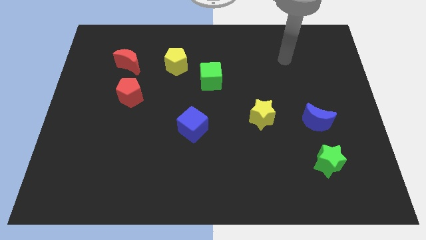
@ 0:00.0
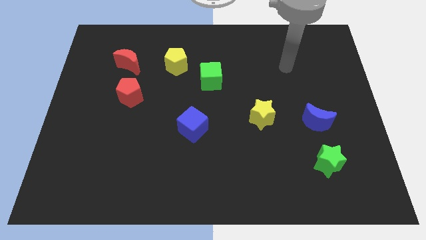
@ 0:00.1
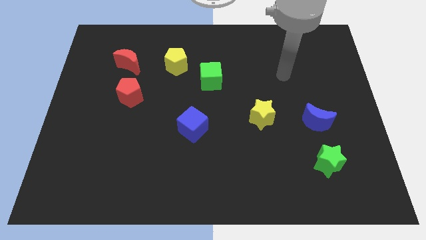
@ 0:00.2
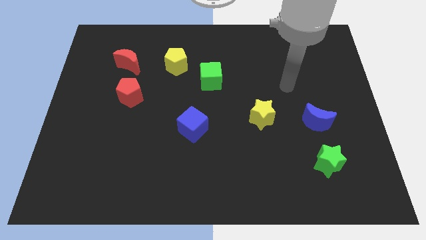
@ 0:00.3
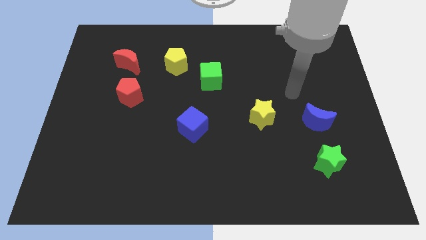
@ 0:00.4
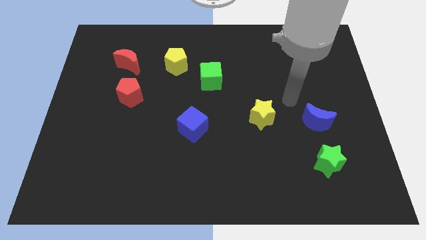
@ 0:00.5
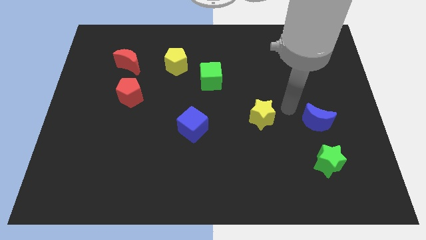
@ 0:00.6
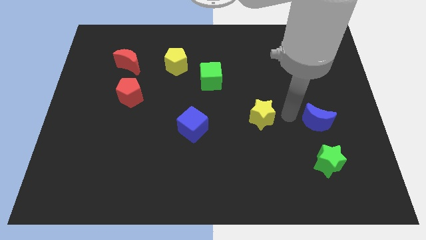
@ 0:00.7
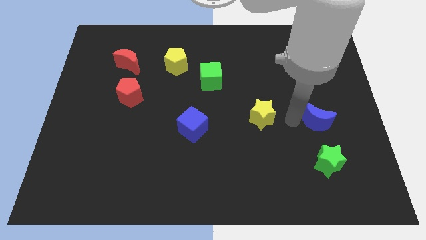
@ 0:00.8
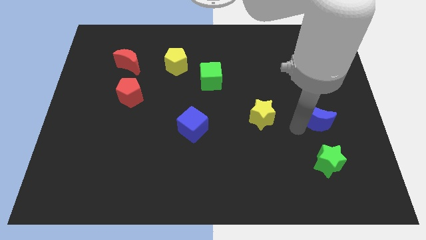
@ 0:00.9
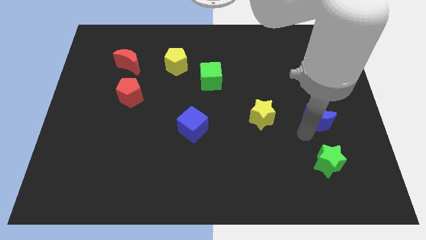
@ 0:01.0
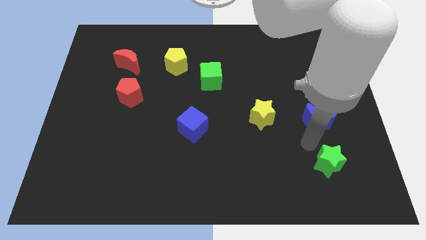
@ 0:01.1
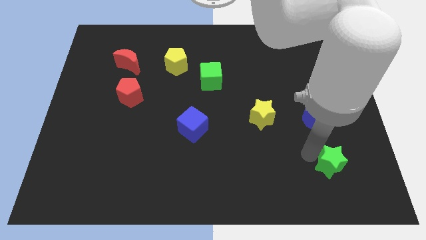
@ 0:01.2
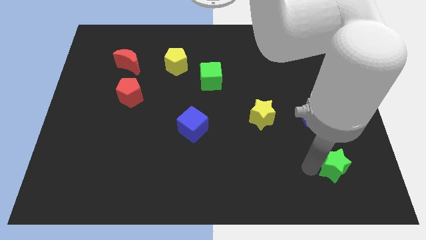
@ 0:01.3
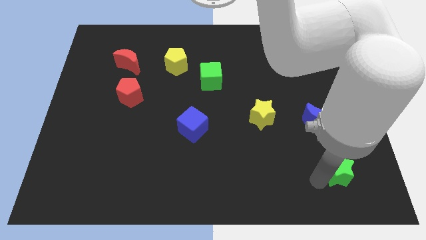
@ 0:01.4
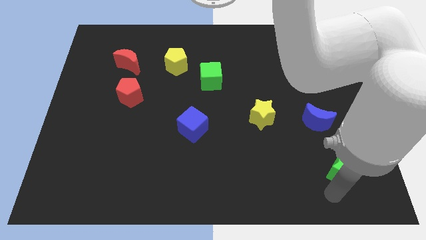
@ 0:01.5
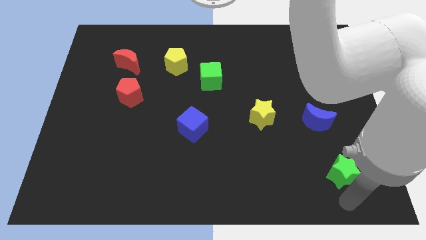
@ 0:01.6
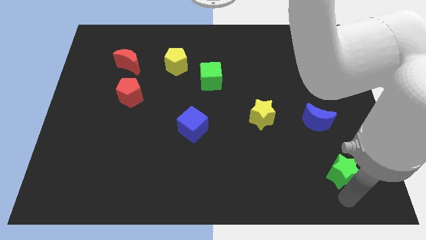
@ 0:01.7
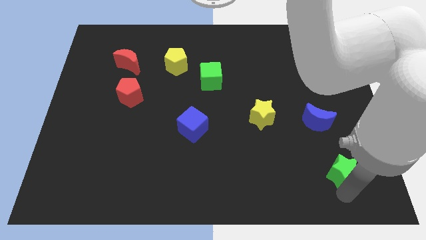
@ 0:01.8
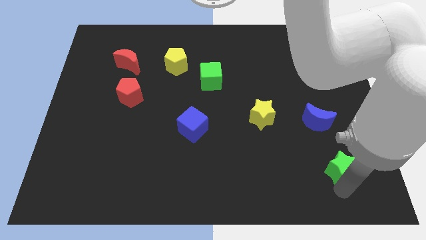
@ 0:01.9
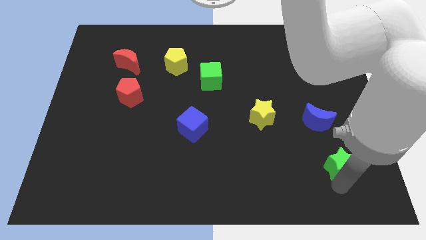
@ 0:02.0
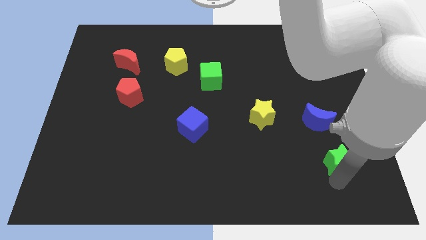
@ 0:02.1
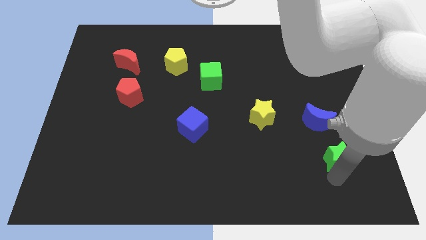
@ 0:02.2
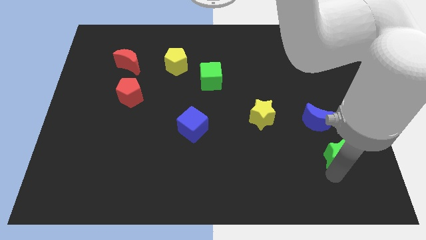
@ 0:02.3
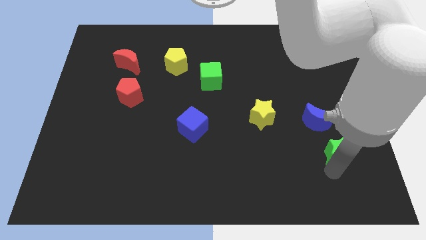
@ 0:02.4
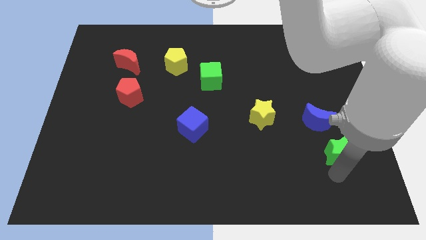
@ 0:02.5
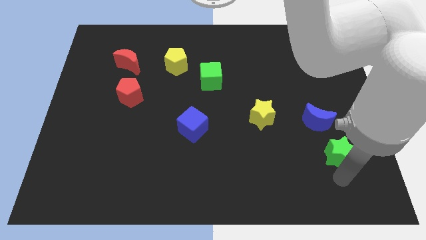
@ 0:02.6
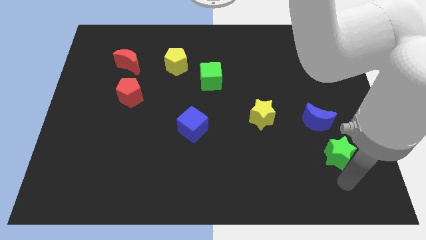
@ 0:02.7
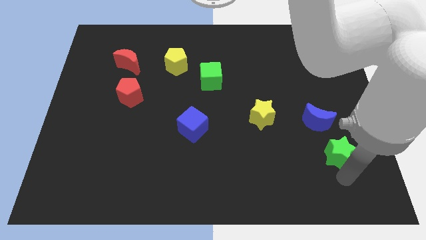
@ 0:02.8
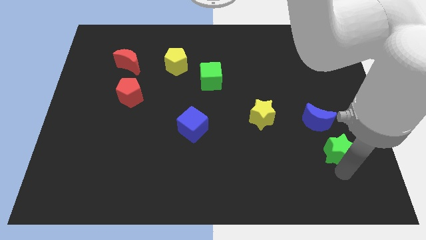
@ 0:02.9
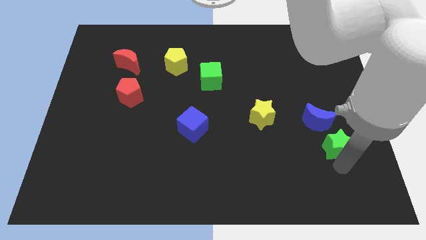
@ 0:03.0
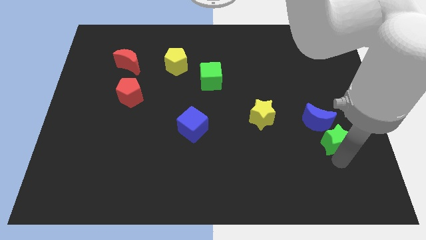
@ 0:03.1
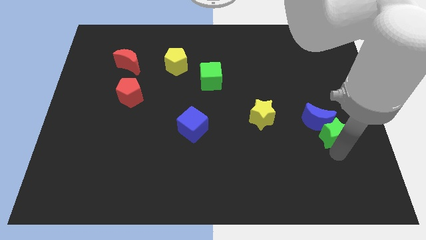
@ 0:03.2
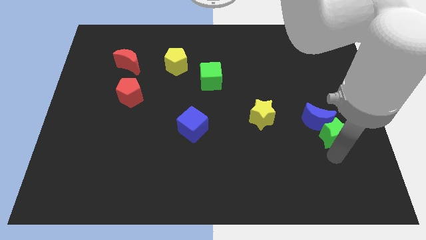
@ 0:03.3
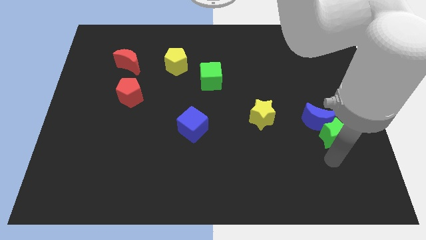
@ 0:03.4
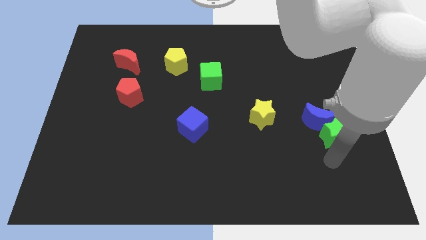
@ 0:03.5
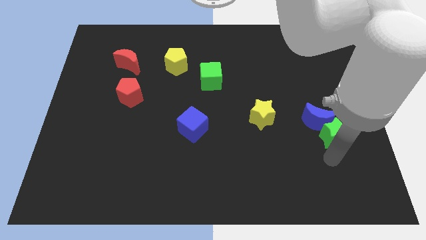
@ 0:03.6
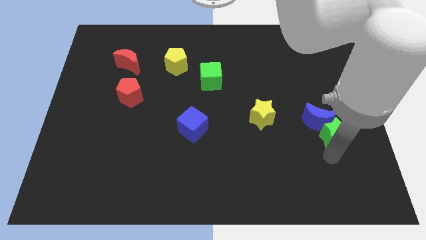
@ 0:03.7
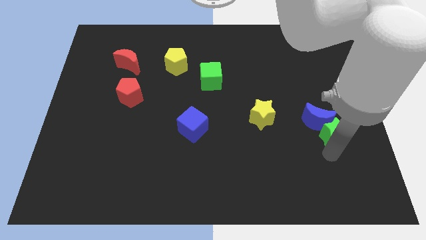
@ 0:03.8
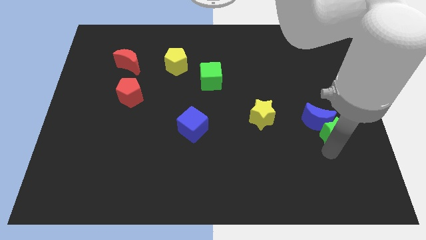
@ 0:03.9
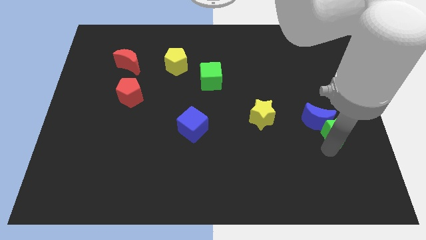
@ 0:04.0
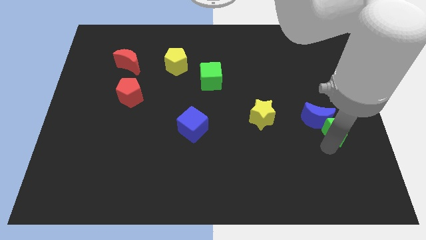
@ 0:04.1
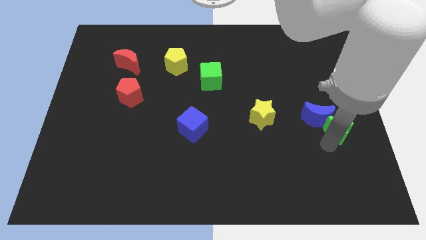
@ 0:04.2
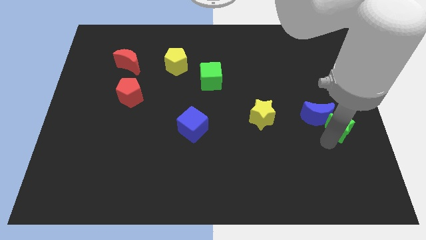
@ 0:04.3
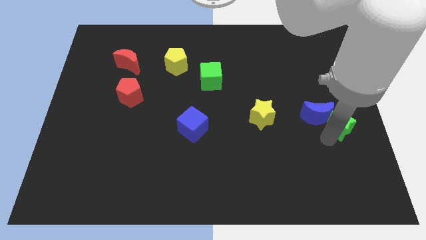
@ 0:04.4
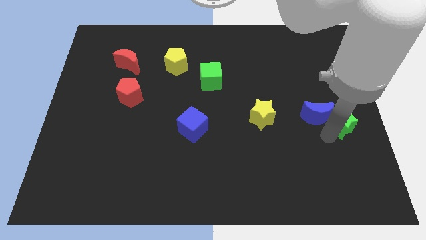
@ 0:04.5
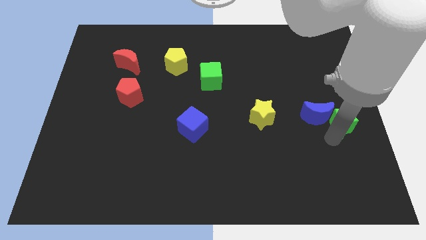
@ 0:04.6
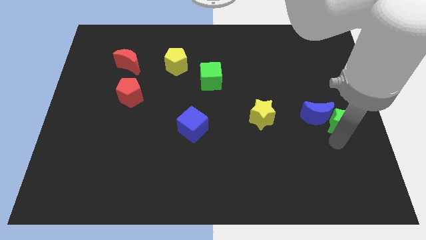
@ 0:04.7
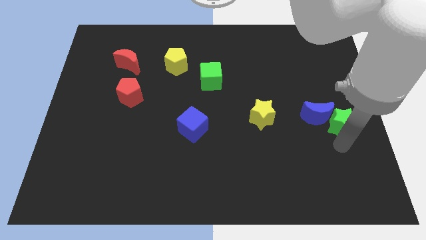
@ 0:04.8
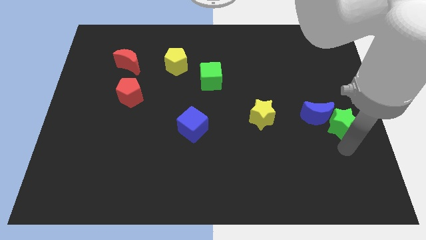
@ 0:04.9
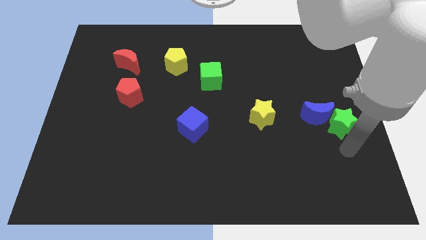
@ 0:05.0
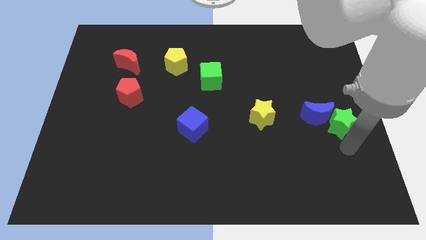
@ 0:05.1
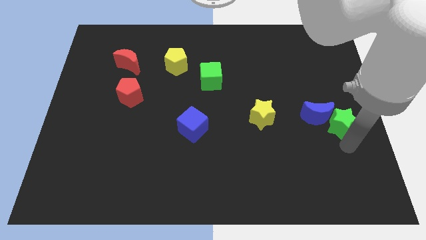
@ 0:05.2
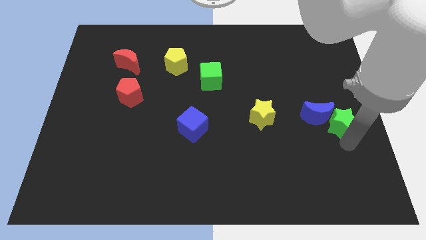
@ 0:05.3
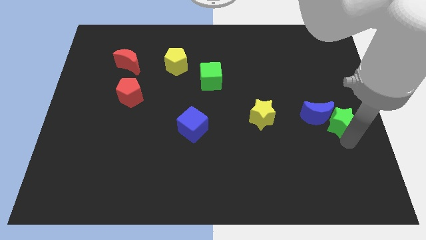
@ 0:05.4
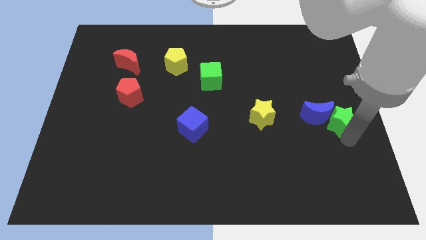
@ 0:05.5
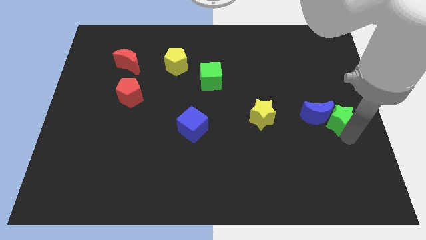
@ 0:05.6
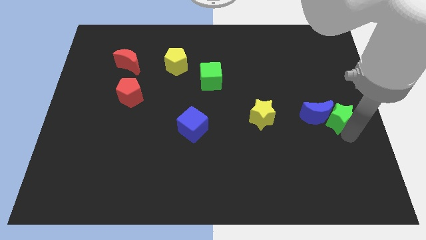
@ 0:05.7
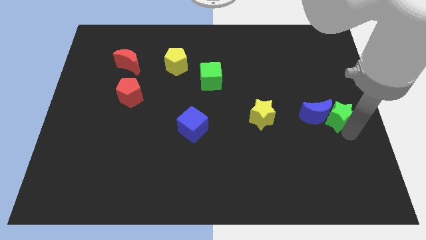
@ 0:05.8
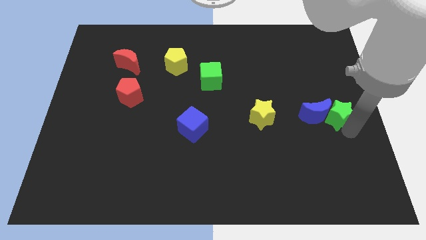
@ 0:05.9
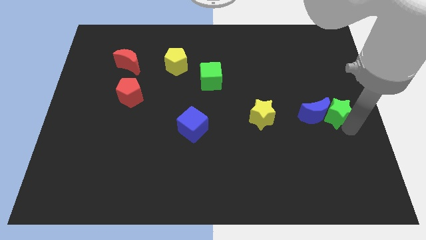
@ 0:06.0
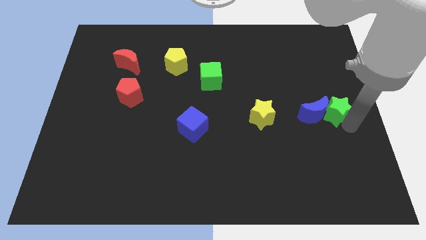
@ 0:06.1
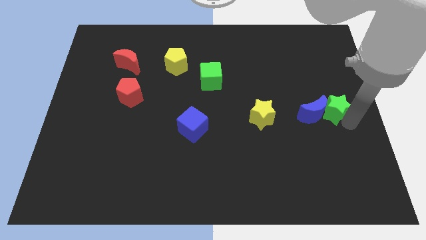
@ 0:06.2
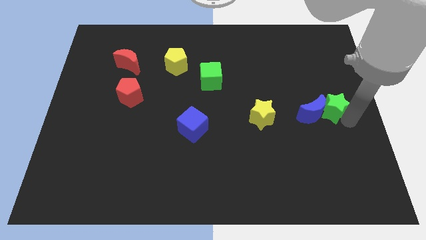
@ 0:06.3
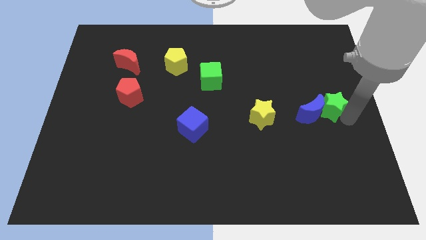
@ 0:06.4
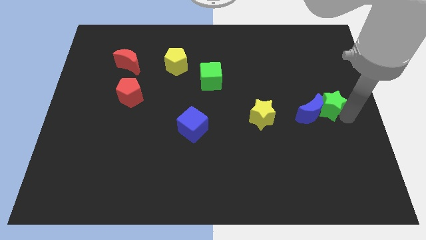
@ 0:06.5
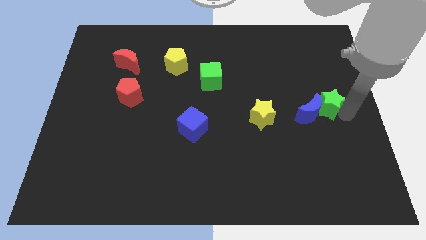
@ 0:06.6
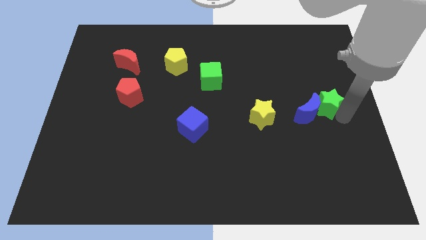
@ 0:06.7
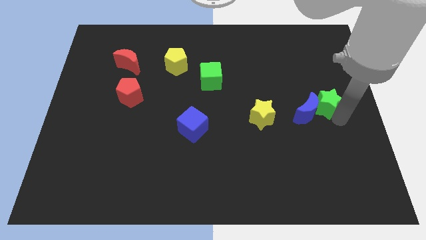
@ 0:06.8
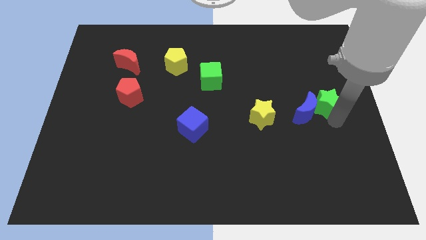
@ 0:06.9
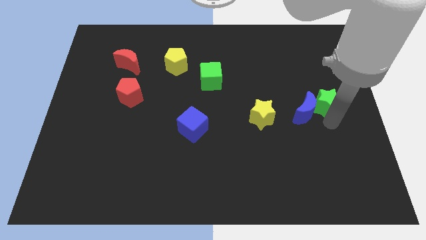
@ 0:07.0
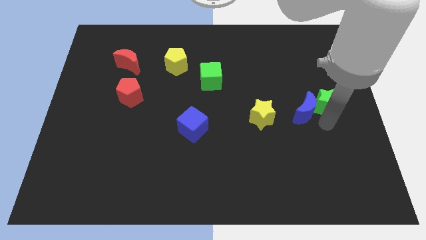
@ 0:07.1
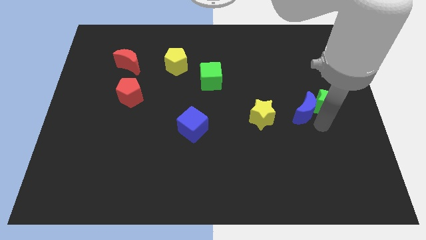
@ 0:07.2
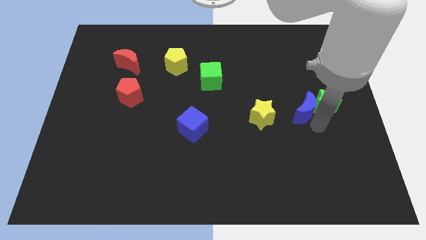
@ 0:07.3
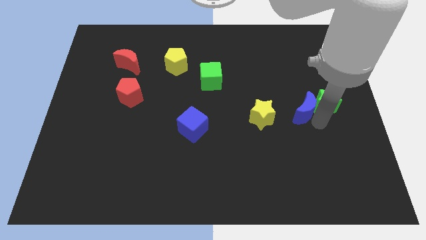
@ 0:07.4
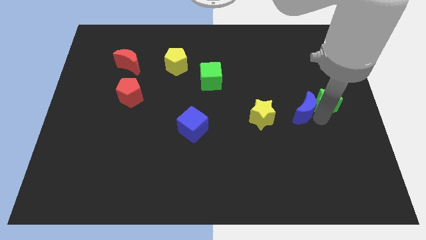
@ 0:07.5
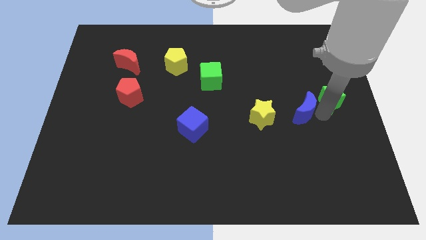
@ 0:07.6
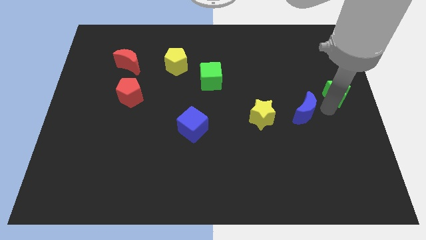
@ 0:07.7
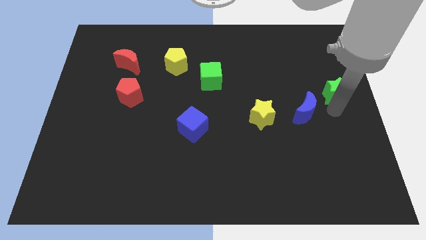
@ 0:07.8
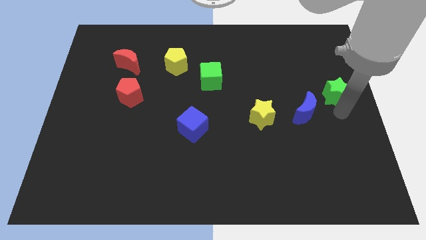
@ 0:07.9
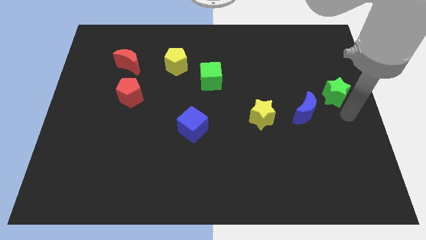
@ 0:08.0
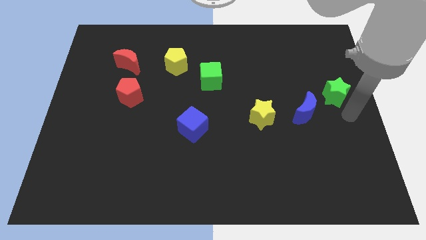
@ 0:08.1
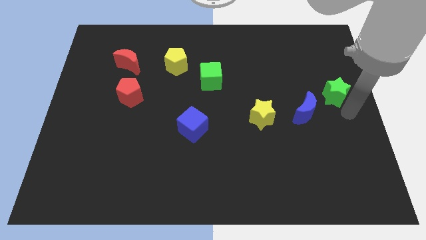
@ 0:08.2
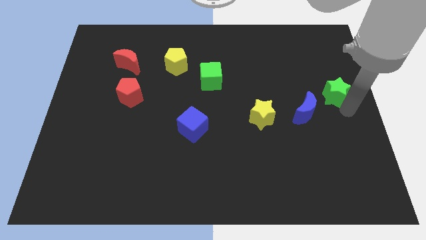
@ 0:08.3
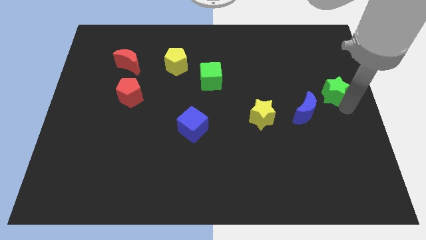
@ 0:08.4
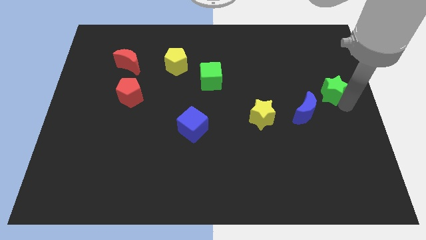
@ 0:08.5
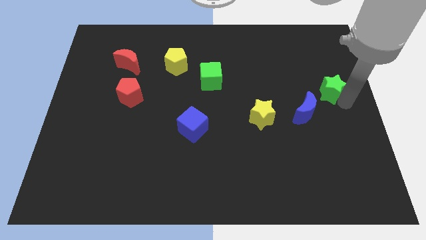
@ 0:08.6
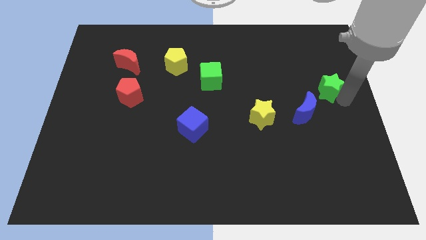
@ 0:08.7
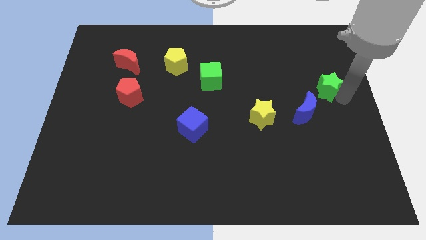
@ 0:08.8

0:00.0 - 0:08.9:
move the green star up
